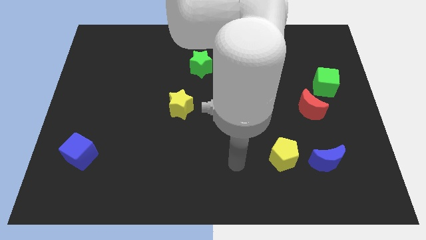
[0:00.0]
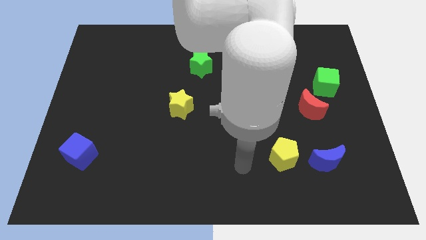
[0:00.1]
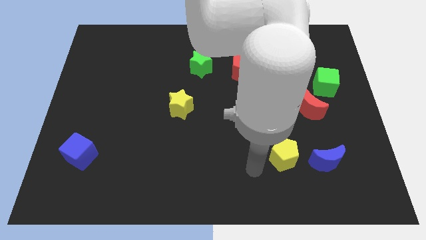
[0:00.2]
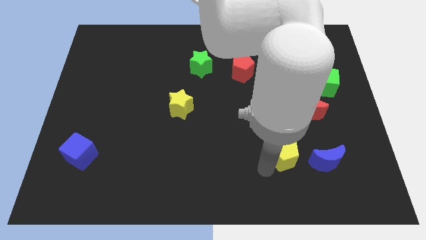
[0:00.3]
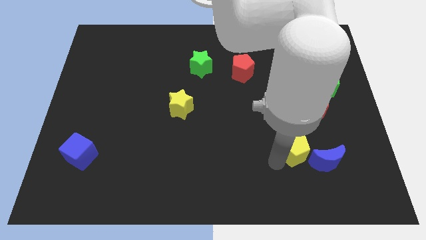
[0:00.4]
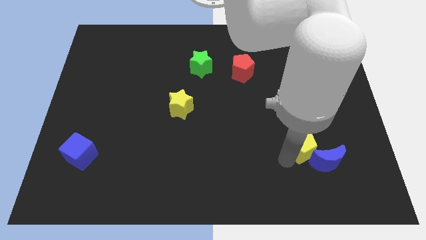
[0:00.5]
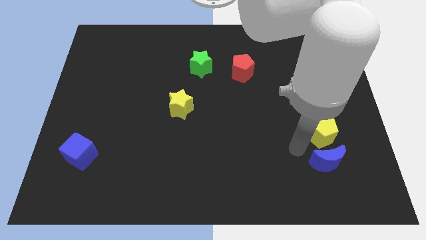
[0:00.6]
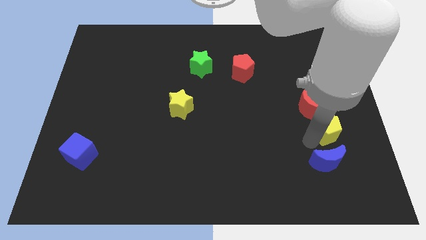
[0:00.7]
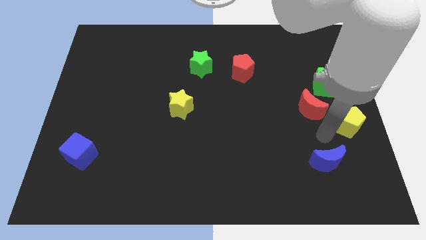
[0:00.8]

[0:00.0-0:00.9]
pull the blue moon apart from the yellow pentagon

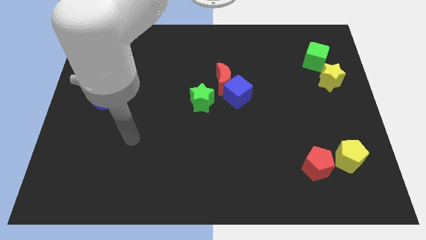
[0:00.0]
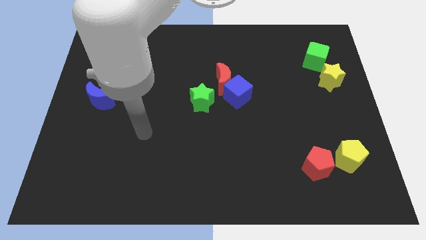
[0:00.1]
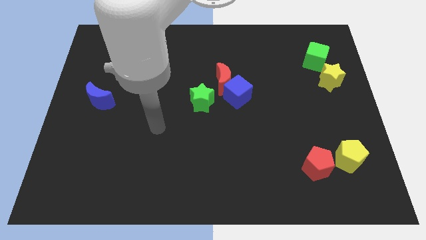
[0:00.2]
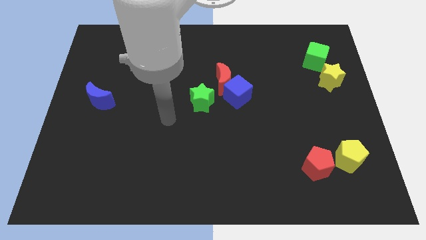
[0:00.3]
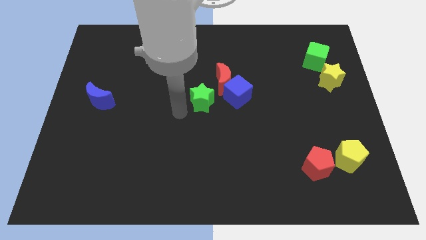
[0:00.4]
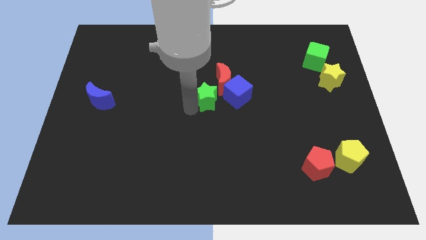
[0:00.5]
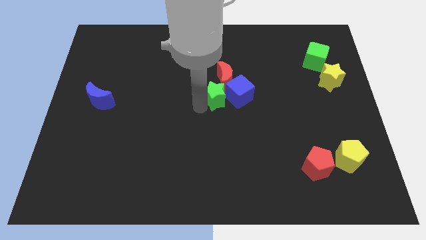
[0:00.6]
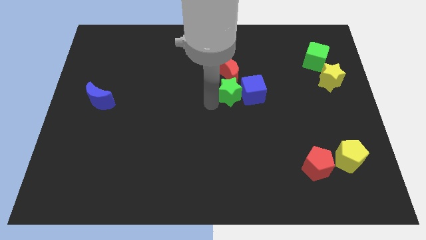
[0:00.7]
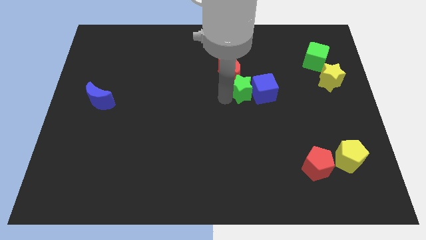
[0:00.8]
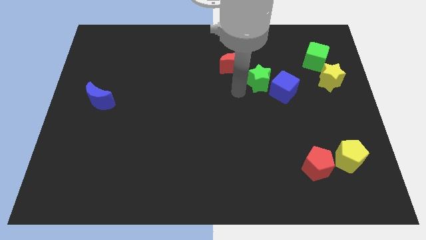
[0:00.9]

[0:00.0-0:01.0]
move the red moon away from the blue cube and green star

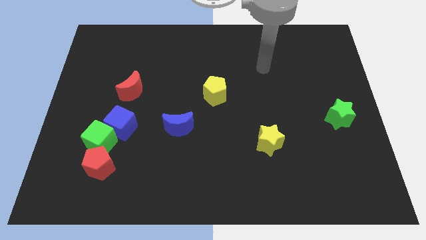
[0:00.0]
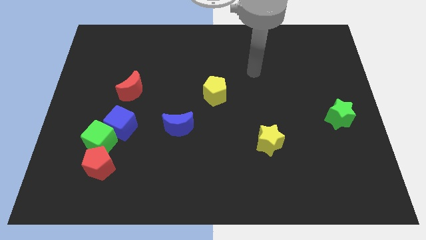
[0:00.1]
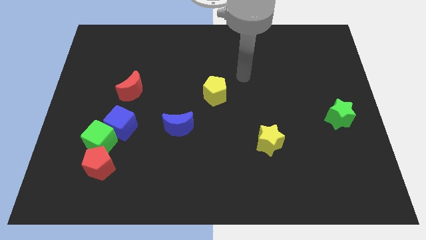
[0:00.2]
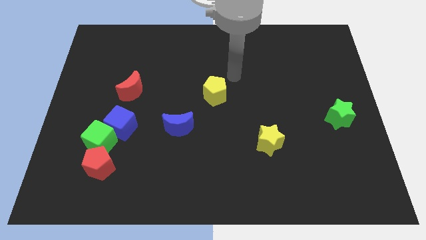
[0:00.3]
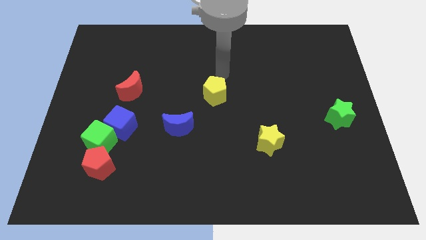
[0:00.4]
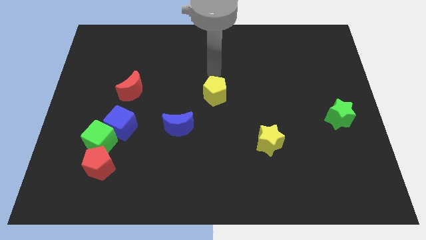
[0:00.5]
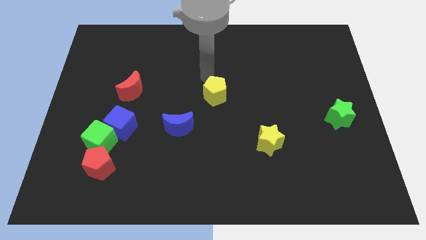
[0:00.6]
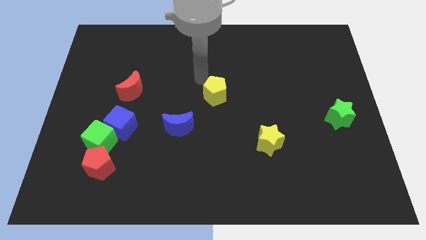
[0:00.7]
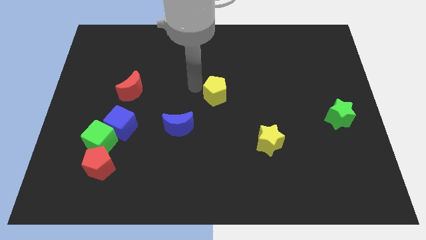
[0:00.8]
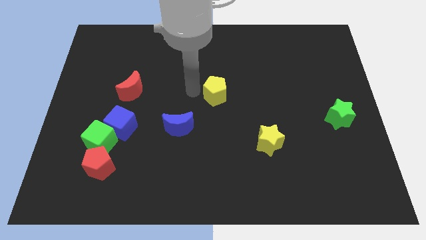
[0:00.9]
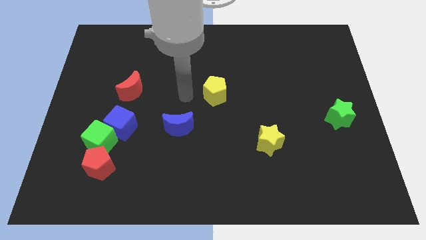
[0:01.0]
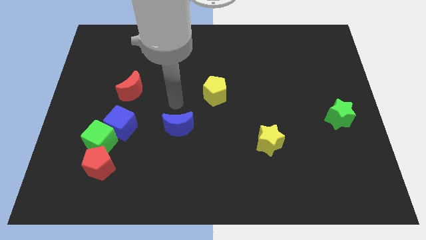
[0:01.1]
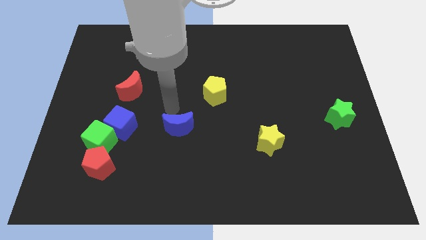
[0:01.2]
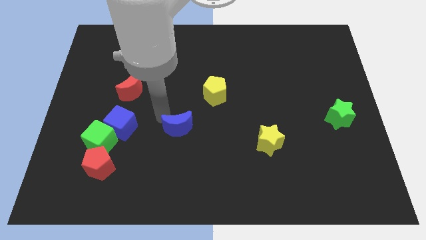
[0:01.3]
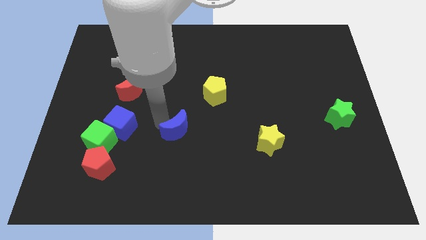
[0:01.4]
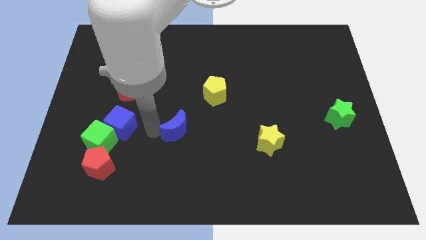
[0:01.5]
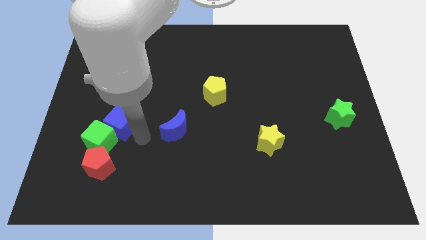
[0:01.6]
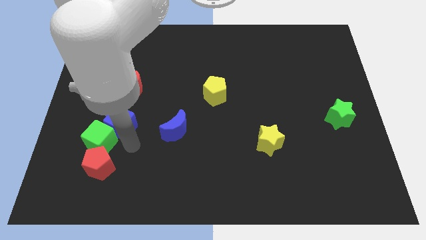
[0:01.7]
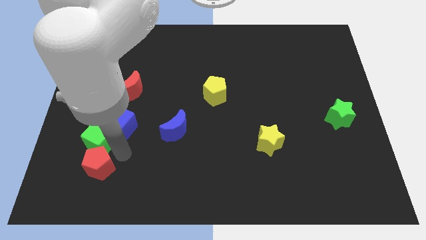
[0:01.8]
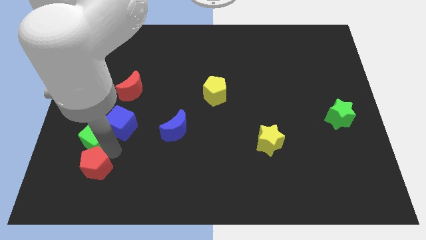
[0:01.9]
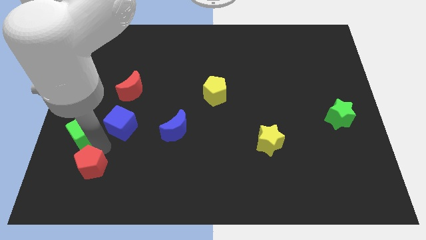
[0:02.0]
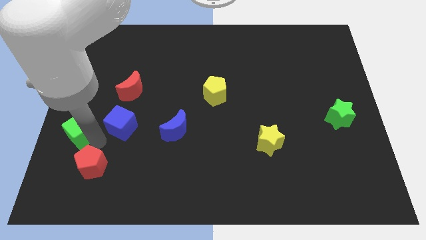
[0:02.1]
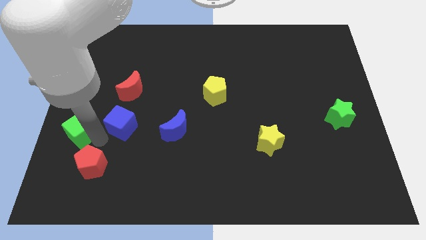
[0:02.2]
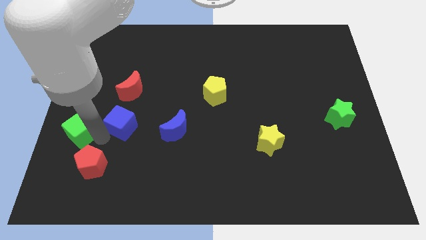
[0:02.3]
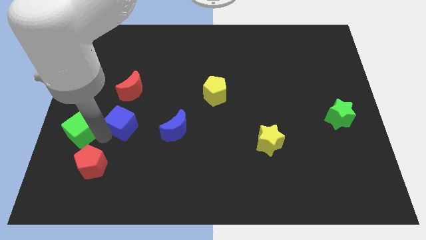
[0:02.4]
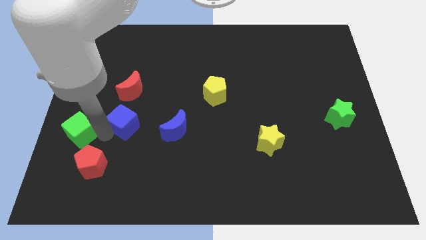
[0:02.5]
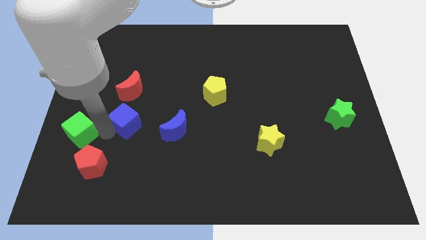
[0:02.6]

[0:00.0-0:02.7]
pull the blue cube apart from the green cube

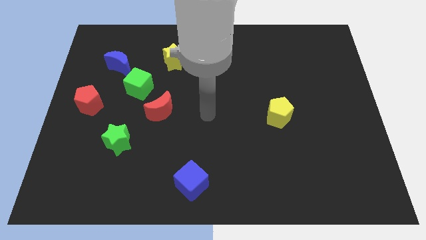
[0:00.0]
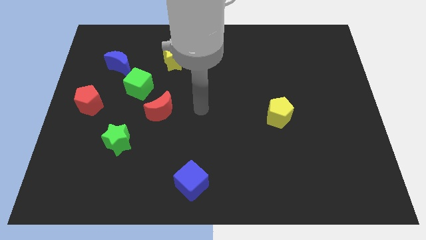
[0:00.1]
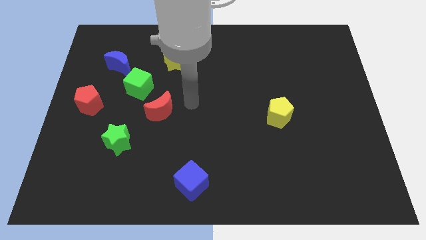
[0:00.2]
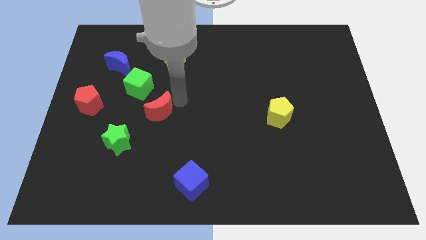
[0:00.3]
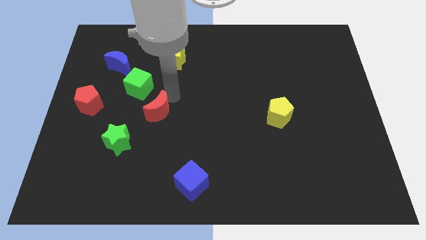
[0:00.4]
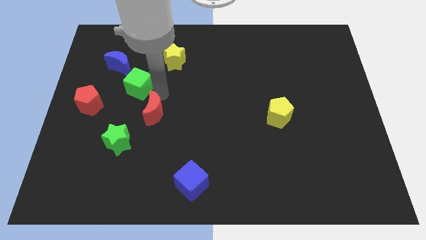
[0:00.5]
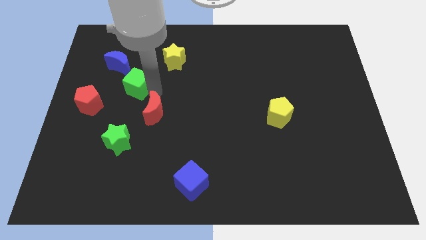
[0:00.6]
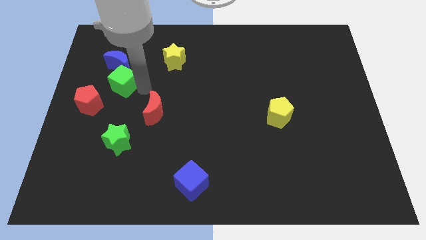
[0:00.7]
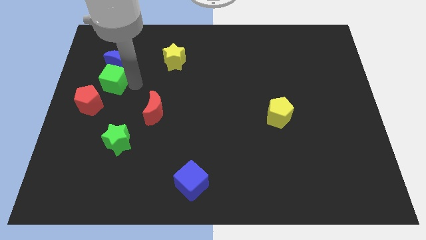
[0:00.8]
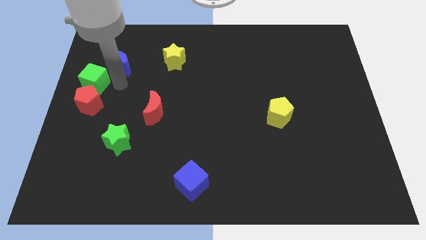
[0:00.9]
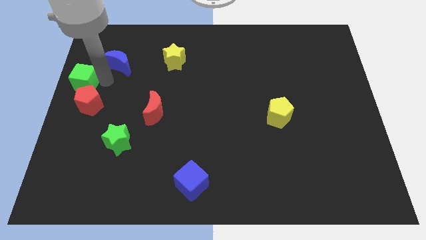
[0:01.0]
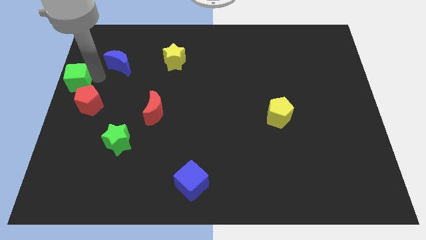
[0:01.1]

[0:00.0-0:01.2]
pull the blue moon apart from the green cube

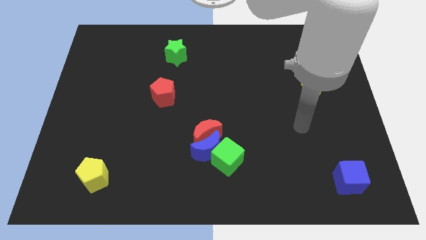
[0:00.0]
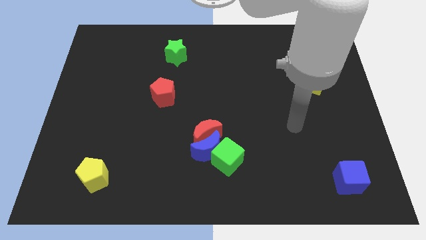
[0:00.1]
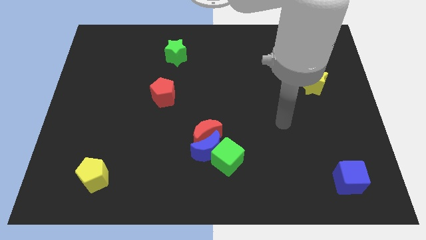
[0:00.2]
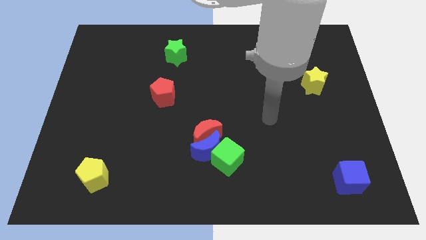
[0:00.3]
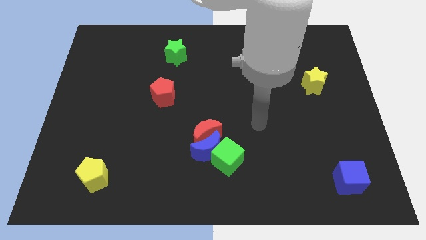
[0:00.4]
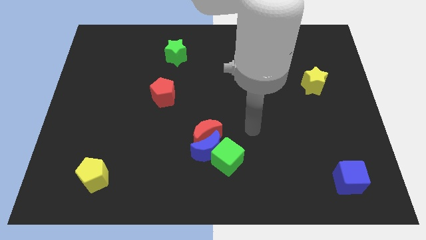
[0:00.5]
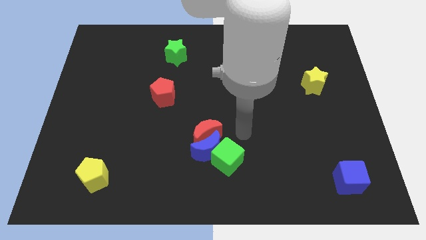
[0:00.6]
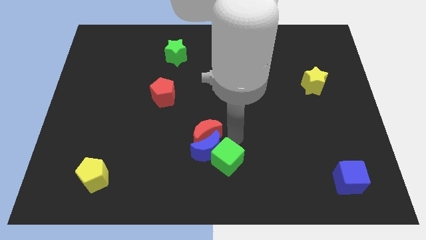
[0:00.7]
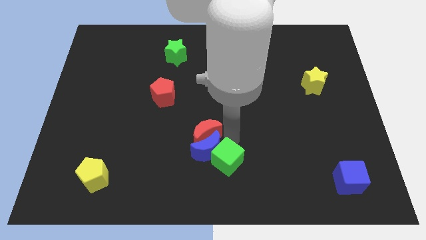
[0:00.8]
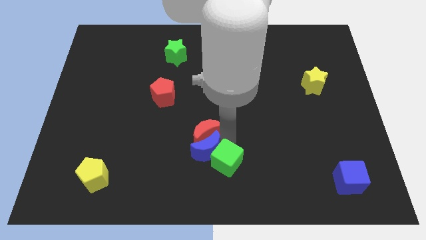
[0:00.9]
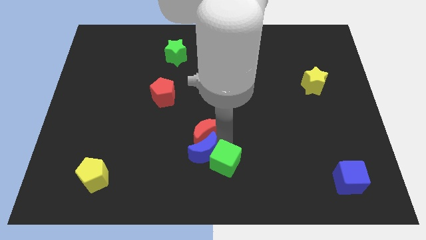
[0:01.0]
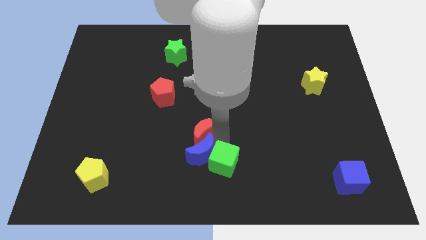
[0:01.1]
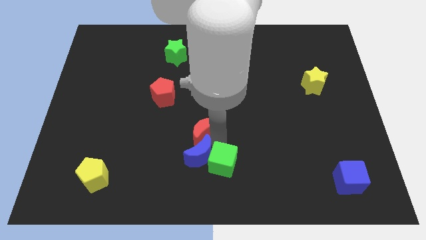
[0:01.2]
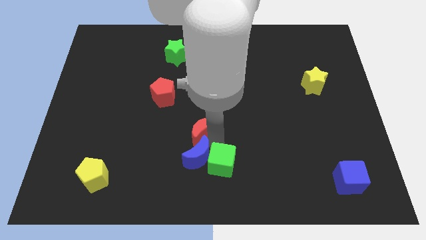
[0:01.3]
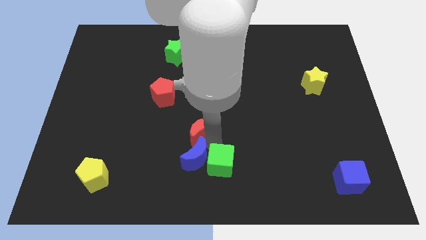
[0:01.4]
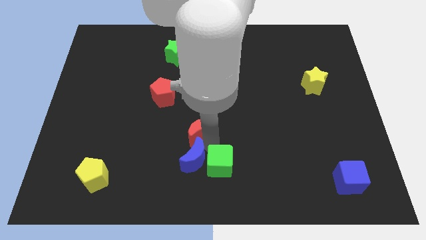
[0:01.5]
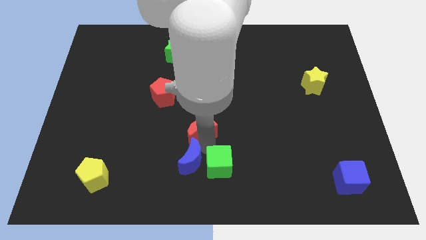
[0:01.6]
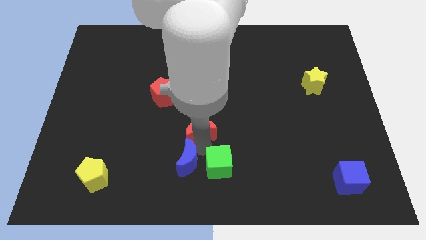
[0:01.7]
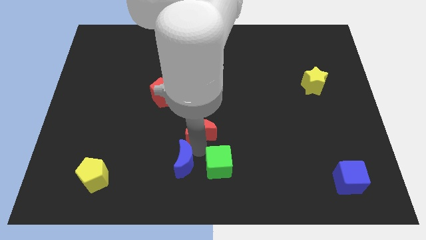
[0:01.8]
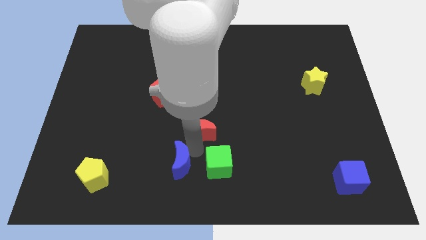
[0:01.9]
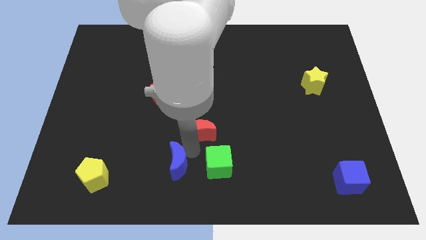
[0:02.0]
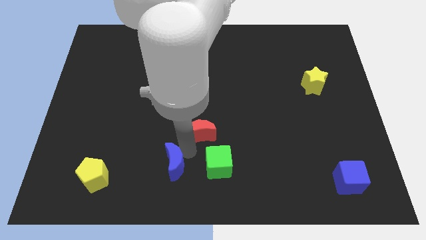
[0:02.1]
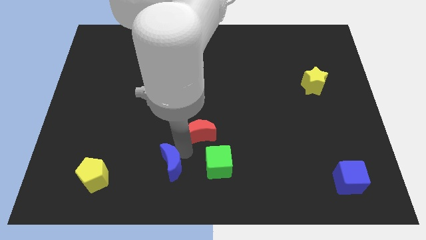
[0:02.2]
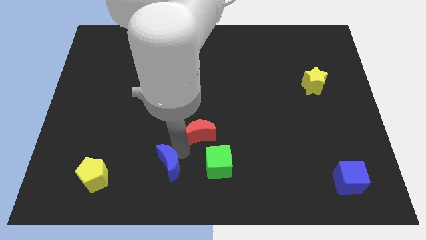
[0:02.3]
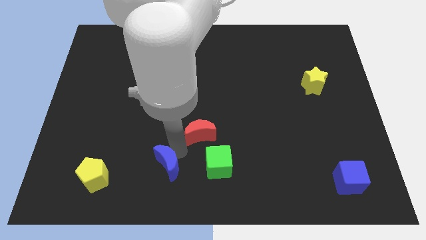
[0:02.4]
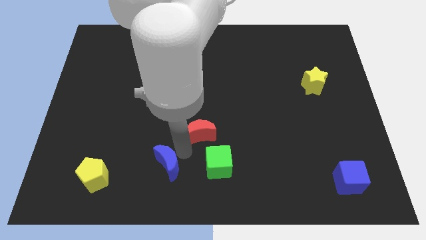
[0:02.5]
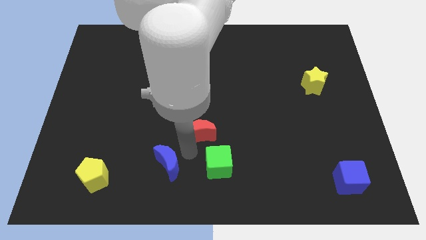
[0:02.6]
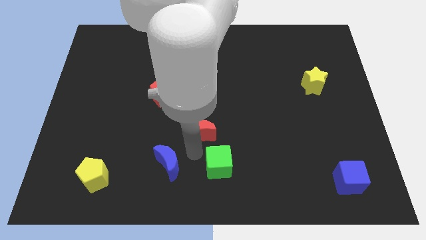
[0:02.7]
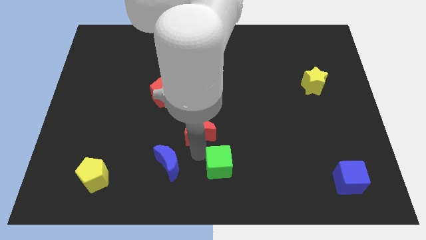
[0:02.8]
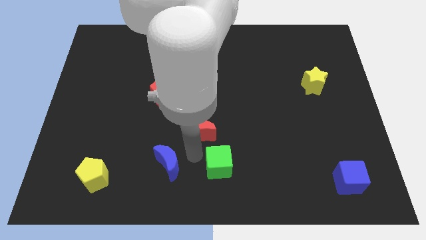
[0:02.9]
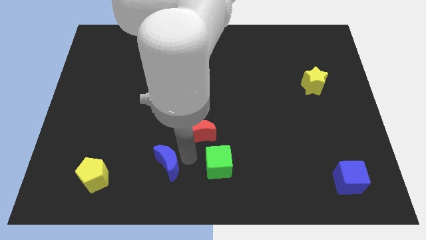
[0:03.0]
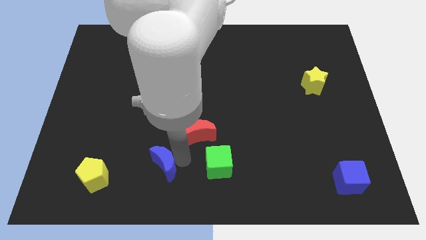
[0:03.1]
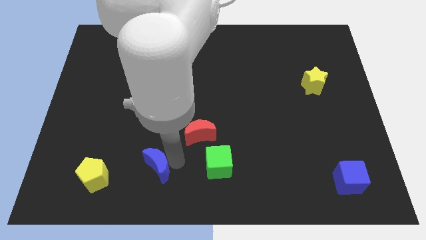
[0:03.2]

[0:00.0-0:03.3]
pull the blue moon apart from the red moon and green cube

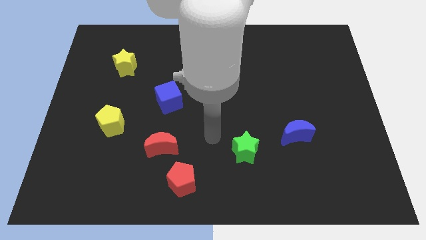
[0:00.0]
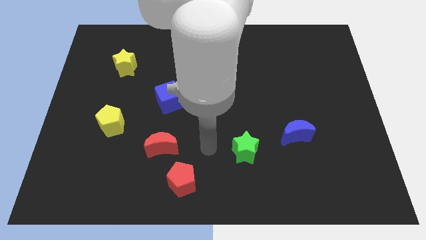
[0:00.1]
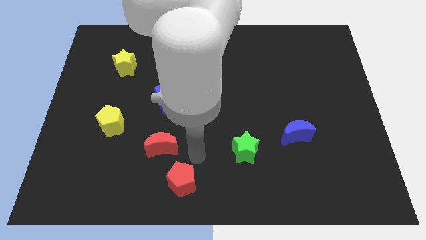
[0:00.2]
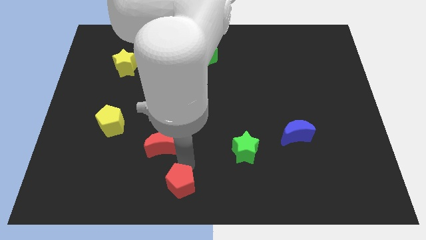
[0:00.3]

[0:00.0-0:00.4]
pull the red moon apart from the red pentagon
